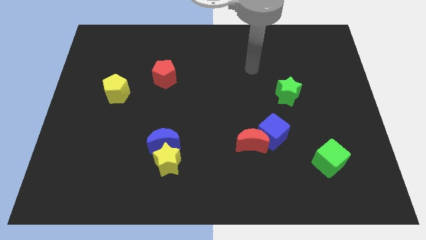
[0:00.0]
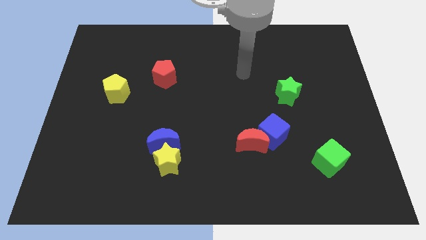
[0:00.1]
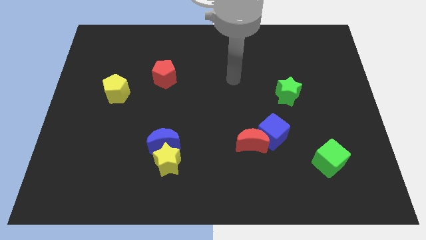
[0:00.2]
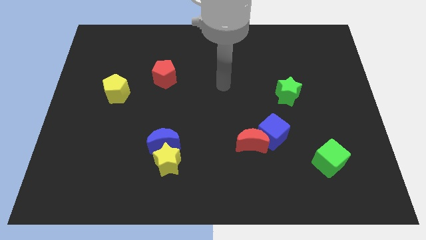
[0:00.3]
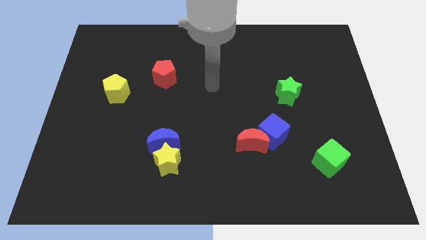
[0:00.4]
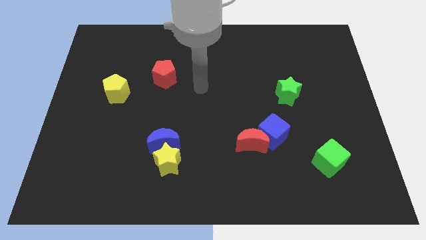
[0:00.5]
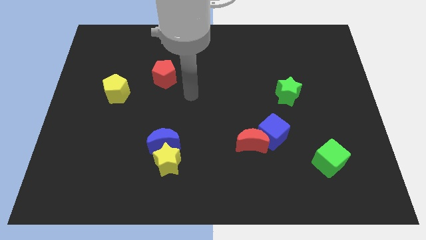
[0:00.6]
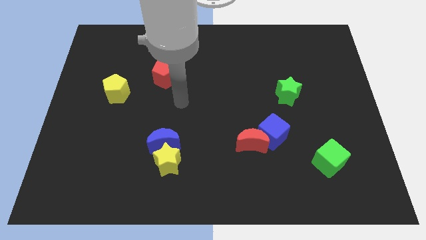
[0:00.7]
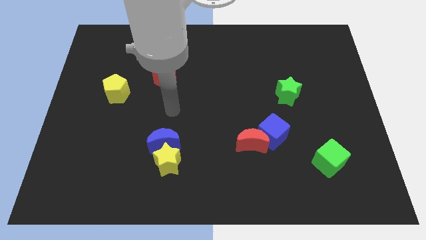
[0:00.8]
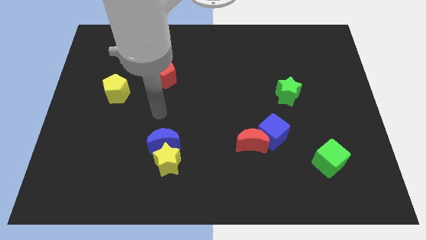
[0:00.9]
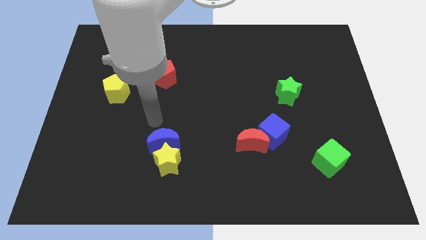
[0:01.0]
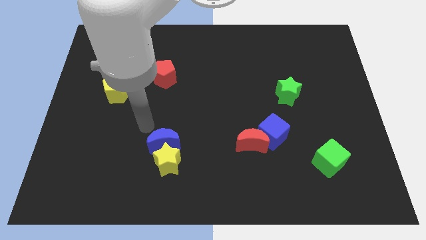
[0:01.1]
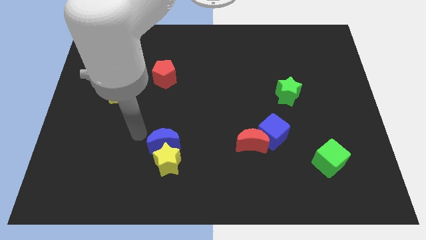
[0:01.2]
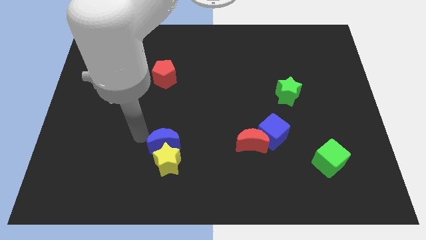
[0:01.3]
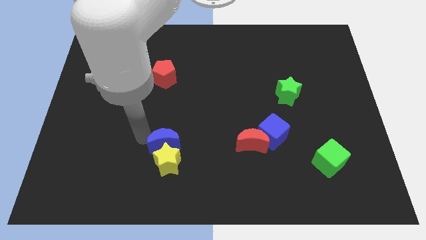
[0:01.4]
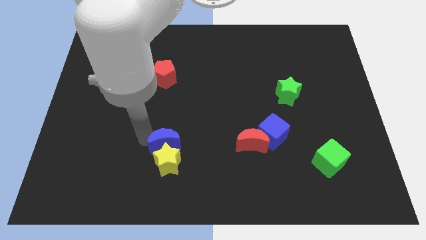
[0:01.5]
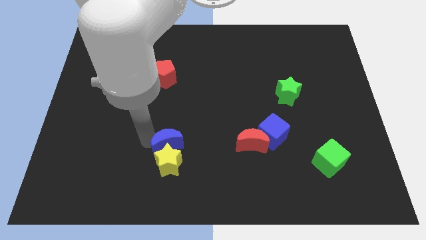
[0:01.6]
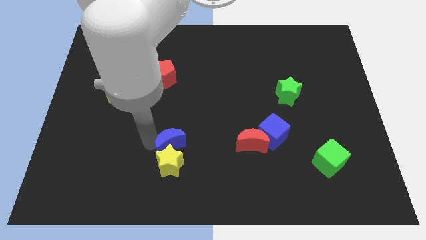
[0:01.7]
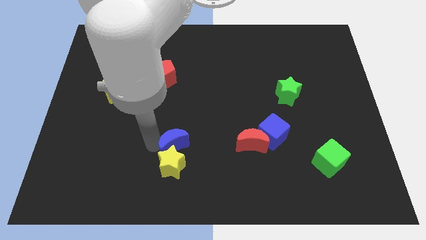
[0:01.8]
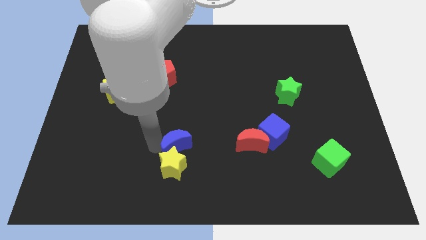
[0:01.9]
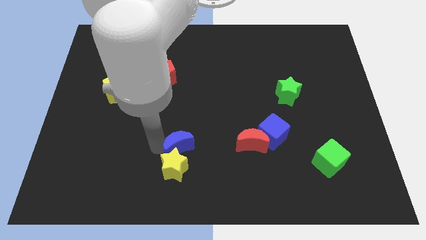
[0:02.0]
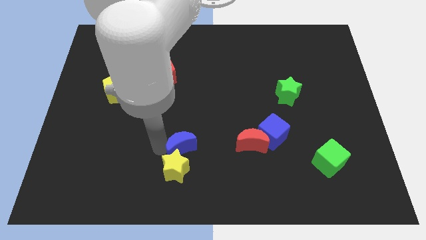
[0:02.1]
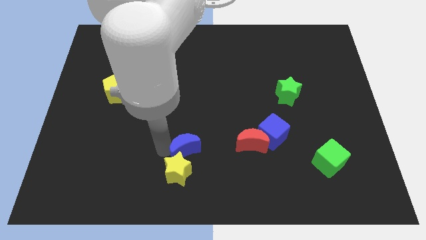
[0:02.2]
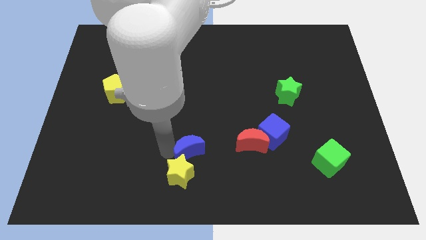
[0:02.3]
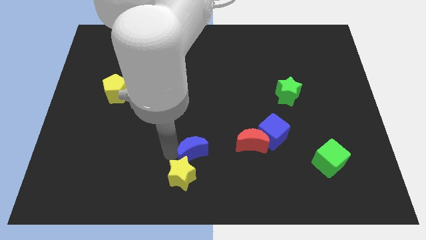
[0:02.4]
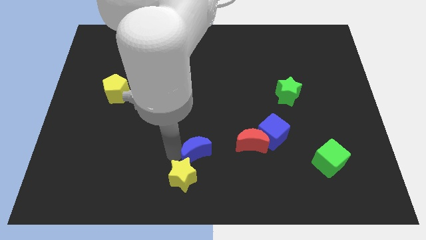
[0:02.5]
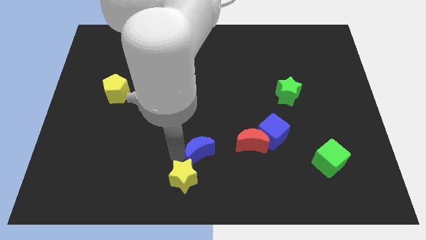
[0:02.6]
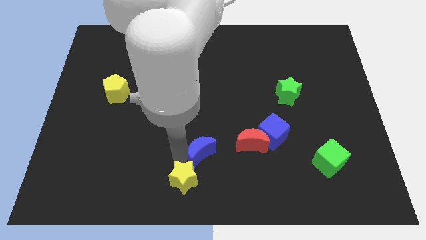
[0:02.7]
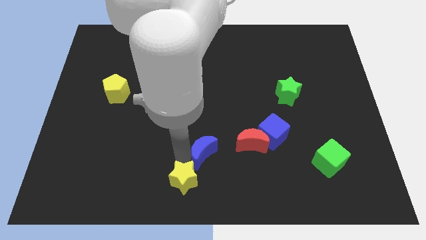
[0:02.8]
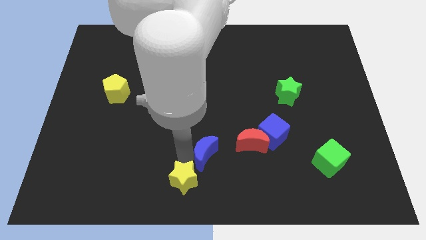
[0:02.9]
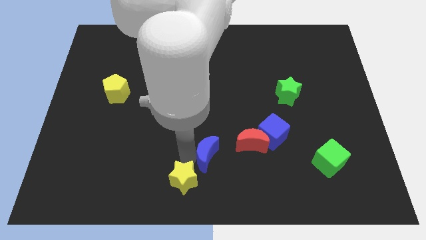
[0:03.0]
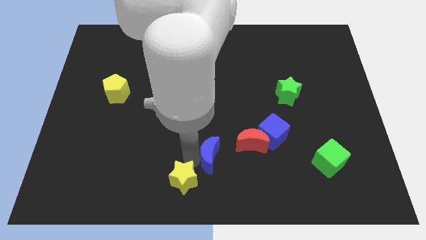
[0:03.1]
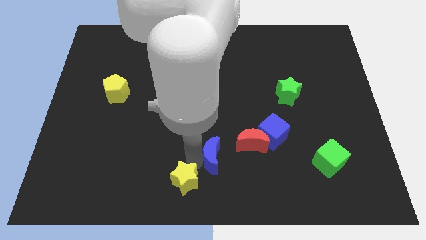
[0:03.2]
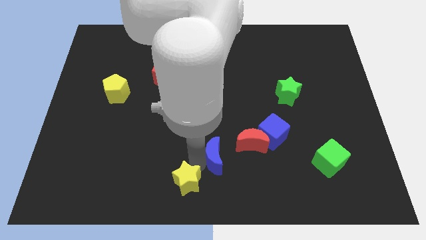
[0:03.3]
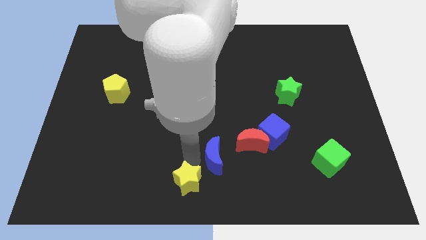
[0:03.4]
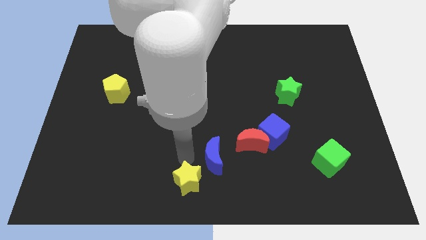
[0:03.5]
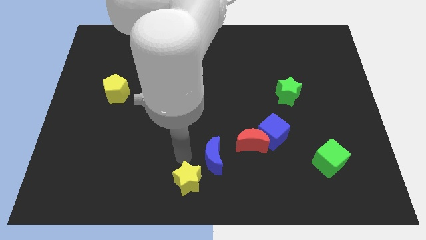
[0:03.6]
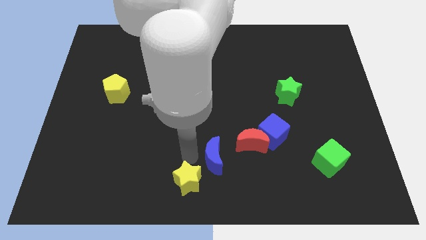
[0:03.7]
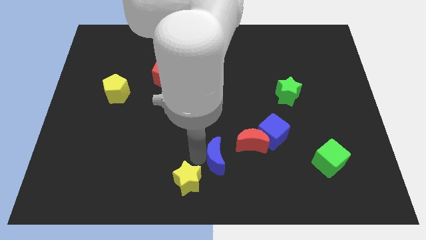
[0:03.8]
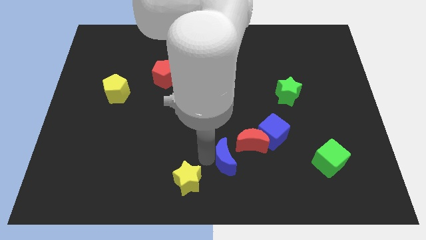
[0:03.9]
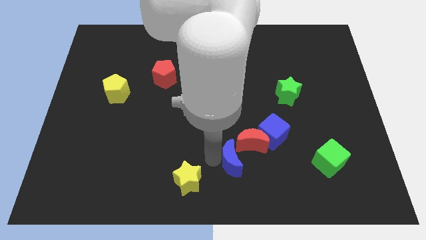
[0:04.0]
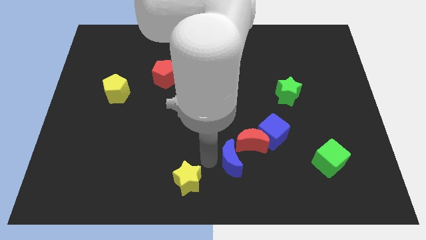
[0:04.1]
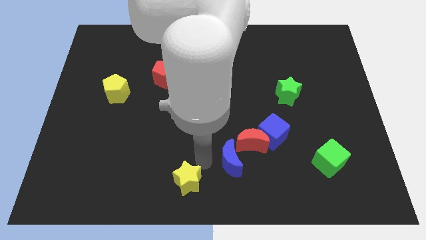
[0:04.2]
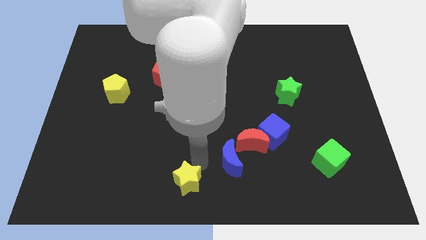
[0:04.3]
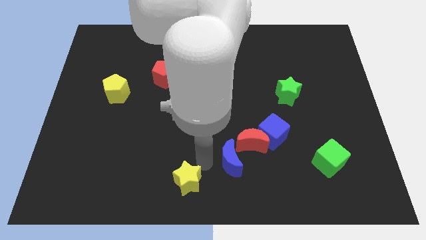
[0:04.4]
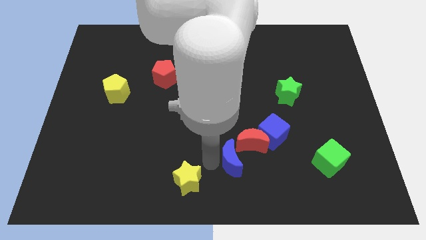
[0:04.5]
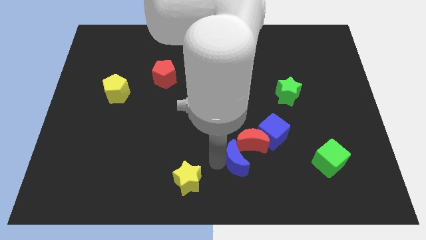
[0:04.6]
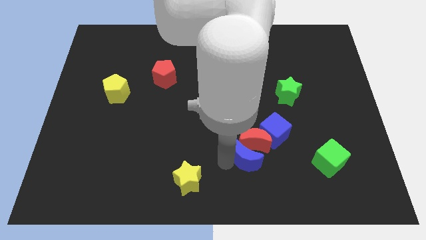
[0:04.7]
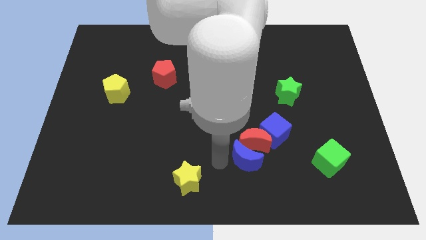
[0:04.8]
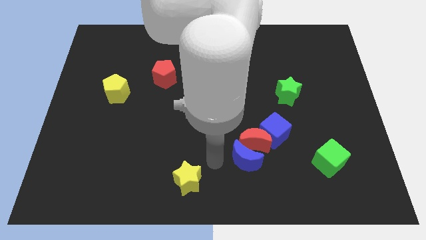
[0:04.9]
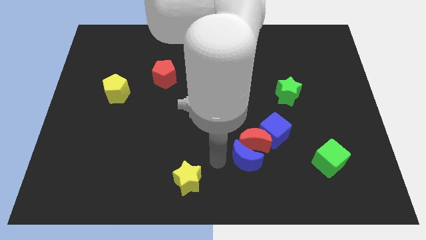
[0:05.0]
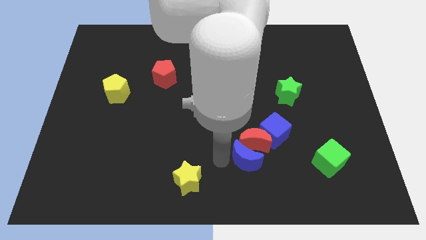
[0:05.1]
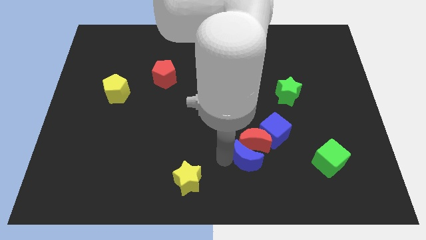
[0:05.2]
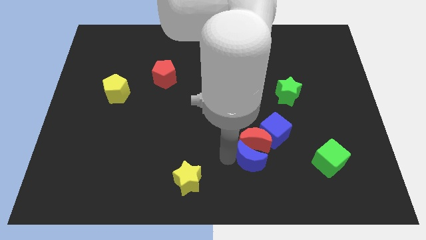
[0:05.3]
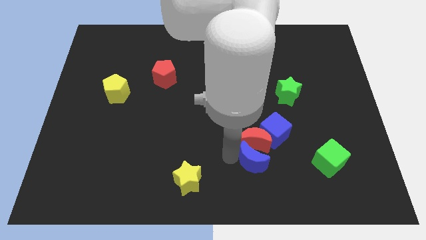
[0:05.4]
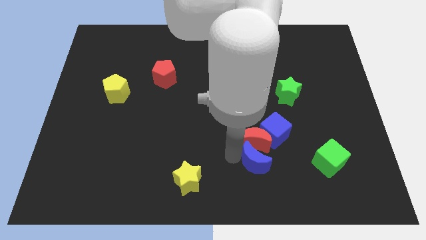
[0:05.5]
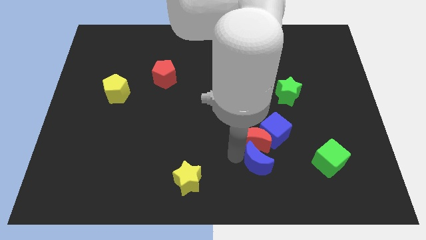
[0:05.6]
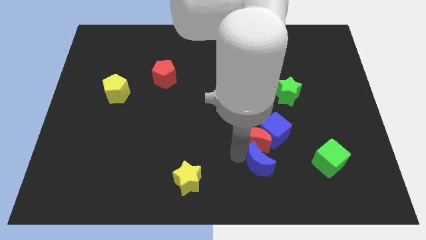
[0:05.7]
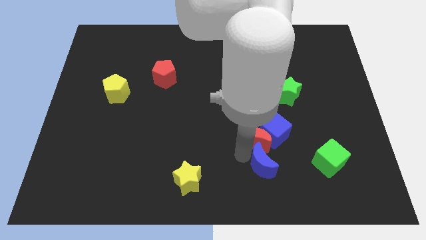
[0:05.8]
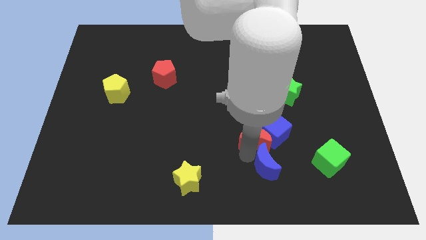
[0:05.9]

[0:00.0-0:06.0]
push the blue moon right

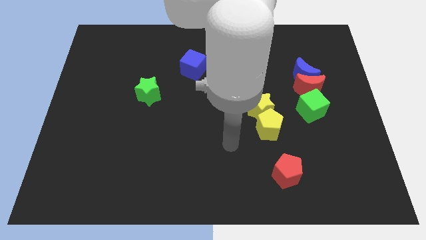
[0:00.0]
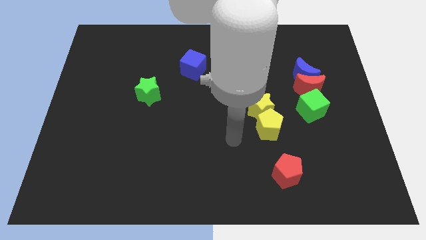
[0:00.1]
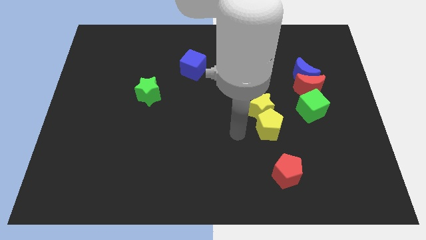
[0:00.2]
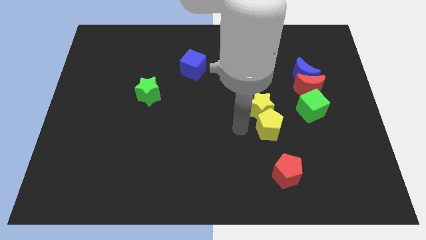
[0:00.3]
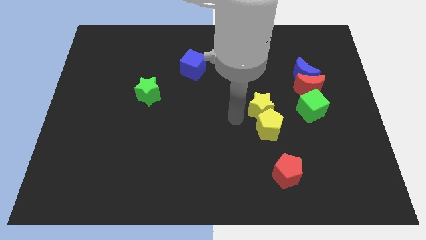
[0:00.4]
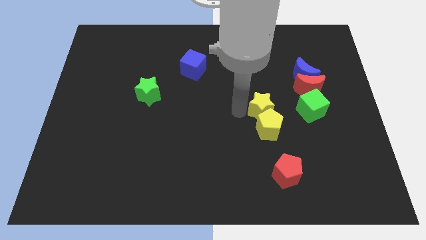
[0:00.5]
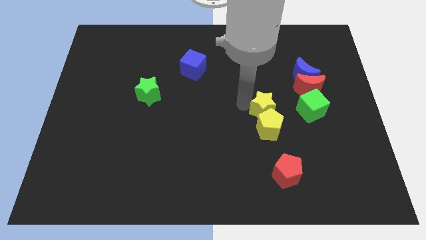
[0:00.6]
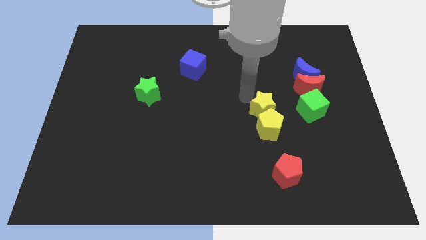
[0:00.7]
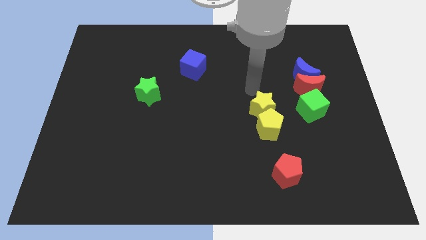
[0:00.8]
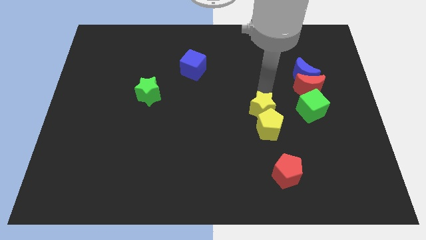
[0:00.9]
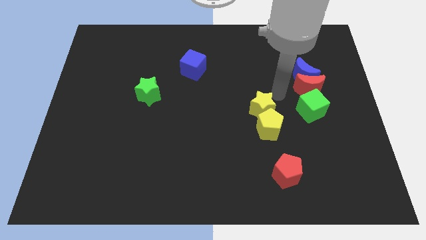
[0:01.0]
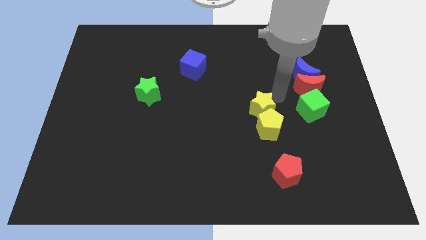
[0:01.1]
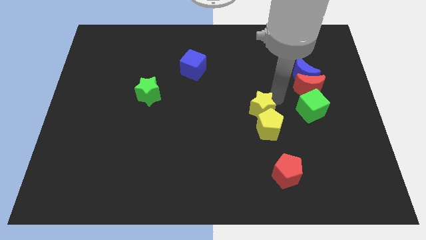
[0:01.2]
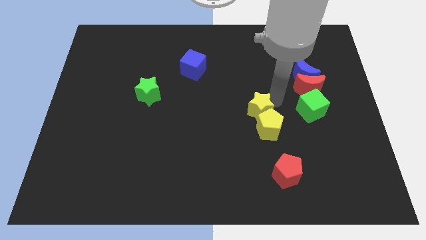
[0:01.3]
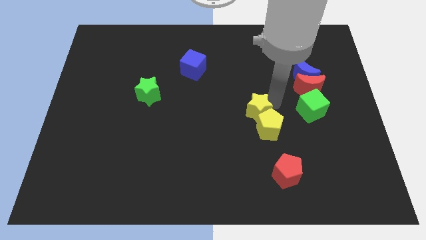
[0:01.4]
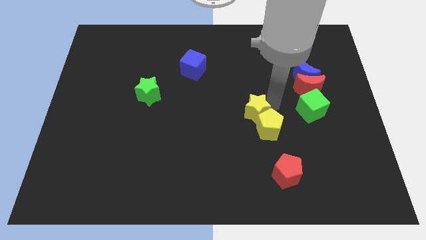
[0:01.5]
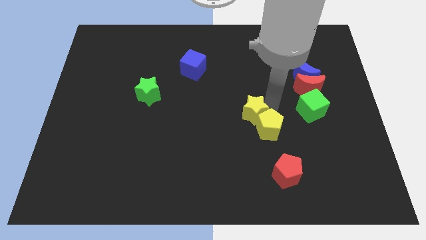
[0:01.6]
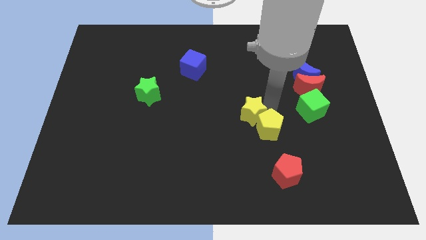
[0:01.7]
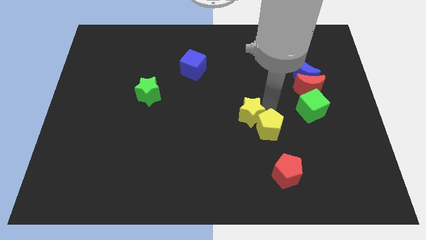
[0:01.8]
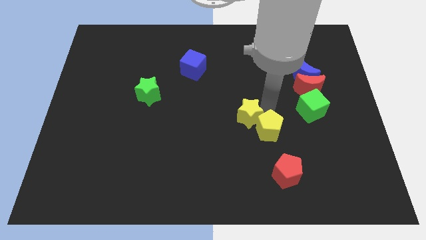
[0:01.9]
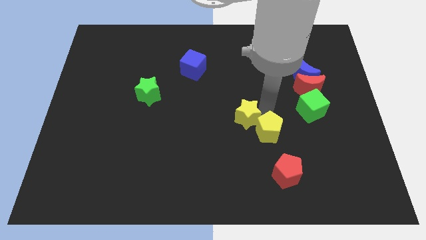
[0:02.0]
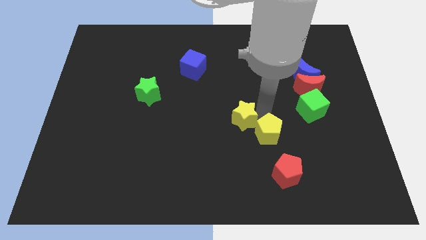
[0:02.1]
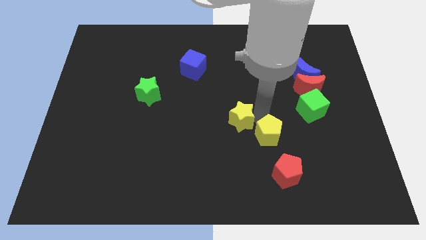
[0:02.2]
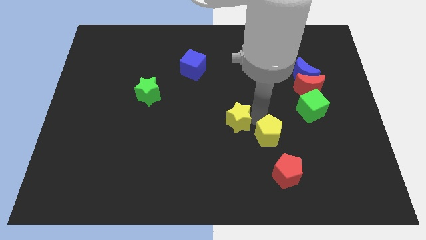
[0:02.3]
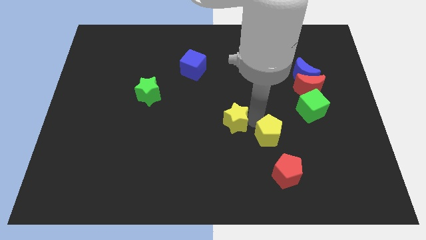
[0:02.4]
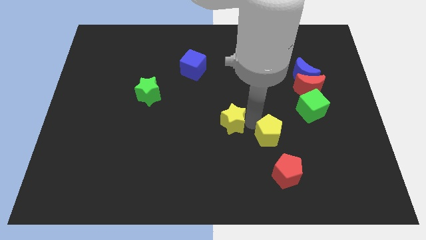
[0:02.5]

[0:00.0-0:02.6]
move the yellow star diagonally downwards and left a little
